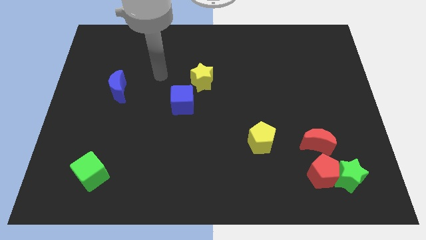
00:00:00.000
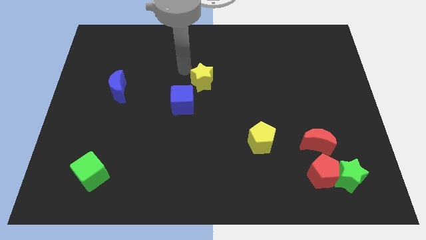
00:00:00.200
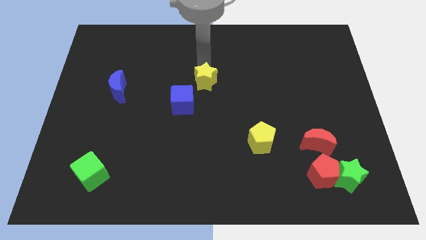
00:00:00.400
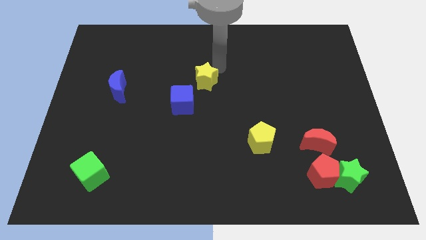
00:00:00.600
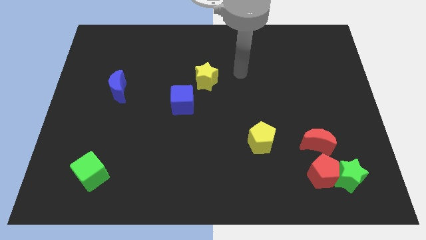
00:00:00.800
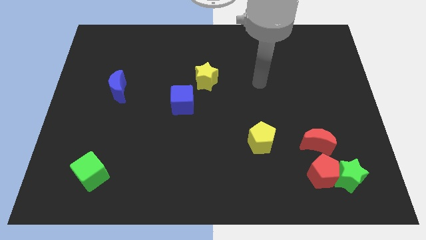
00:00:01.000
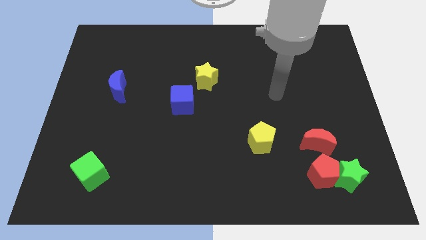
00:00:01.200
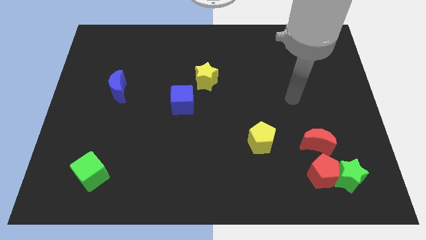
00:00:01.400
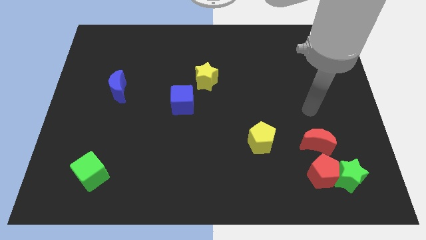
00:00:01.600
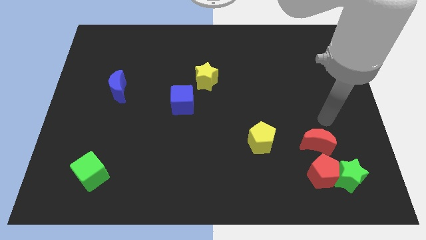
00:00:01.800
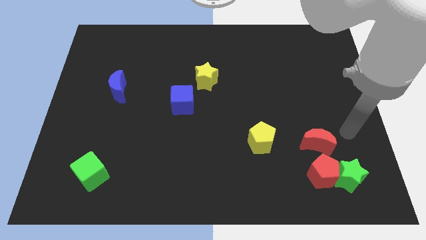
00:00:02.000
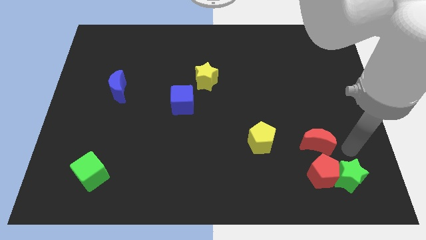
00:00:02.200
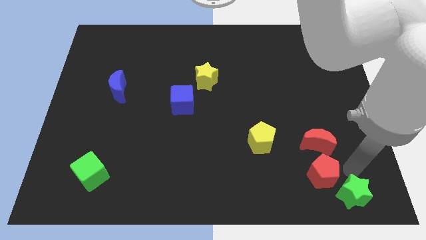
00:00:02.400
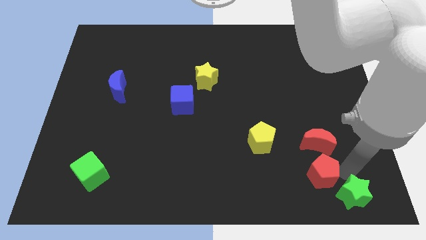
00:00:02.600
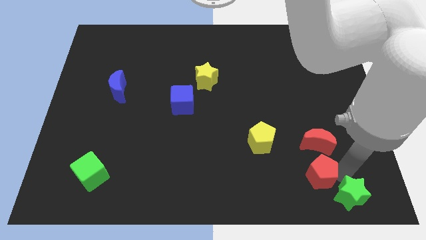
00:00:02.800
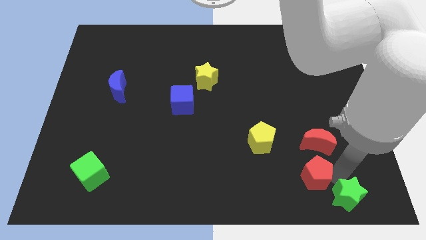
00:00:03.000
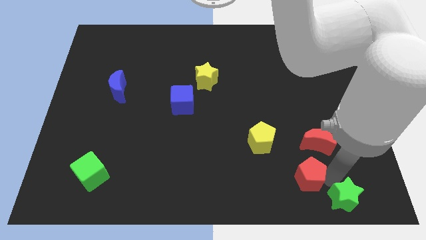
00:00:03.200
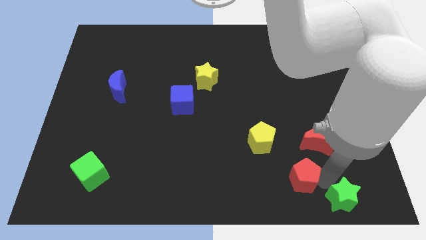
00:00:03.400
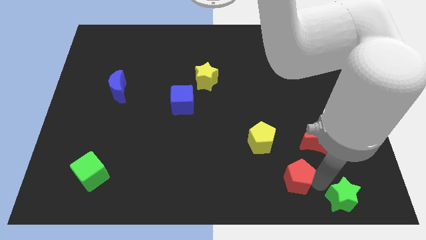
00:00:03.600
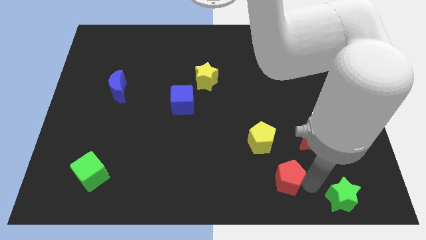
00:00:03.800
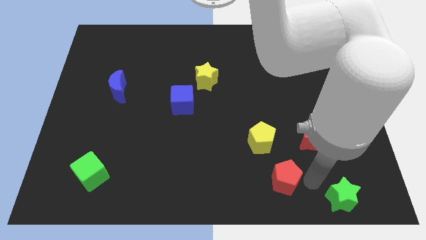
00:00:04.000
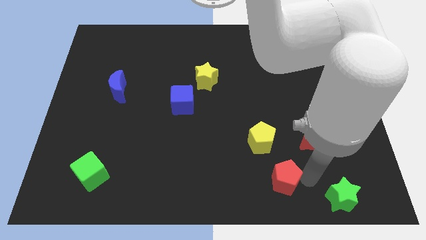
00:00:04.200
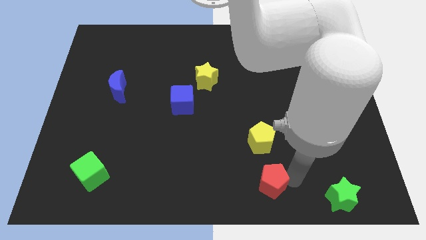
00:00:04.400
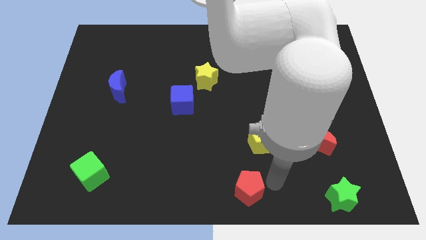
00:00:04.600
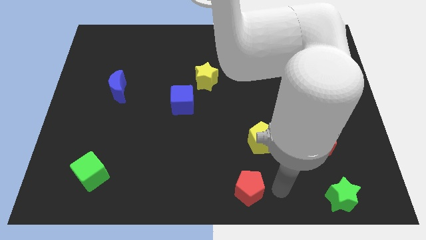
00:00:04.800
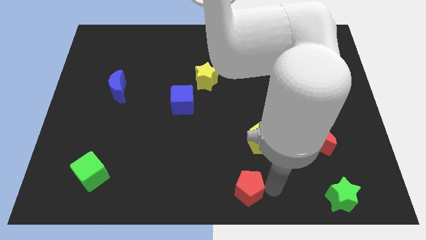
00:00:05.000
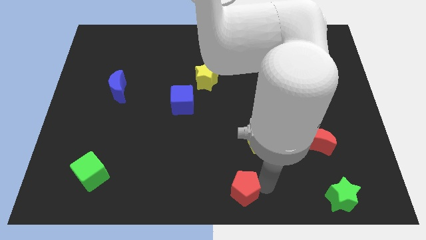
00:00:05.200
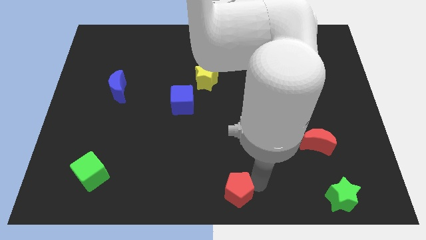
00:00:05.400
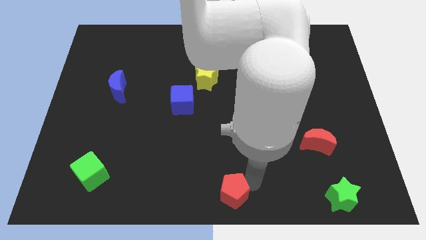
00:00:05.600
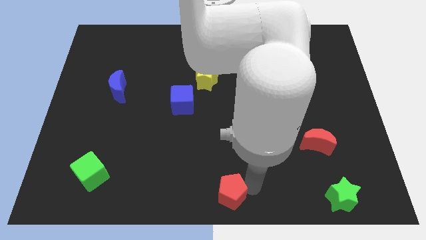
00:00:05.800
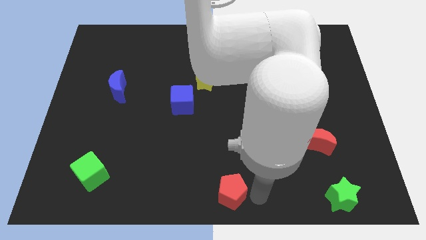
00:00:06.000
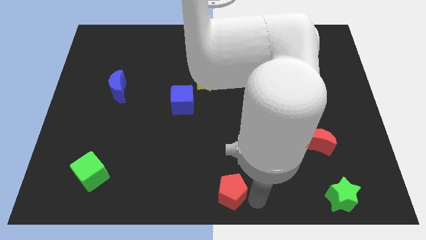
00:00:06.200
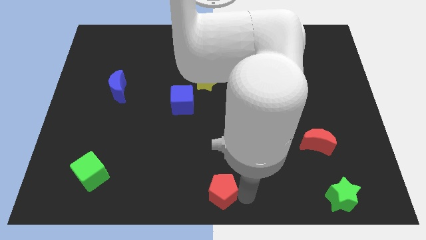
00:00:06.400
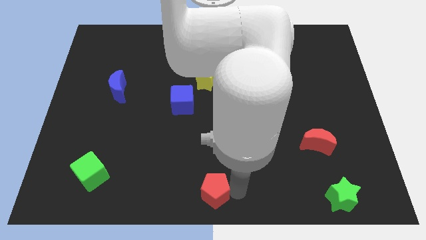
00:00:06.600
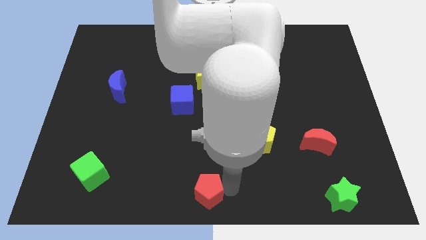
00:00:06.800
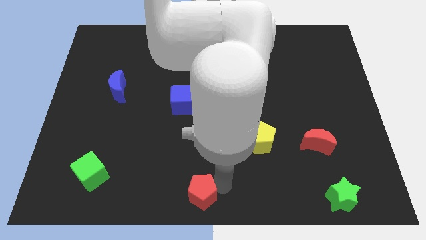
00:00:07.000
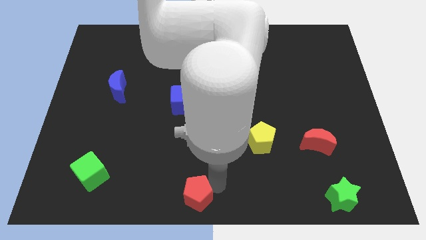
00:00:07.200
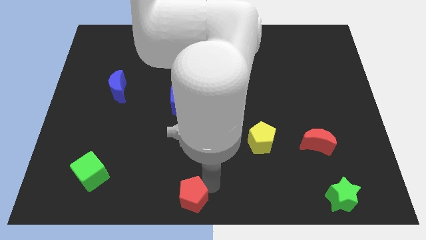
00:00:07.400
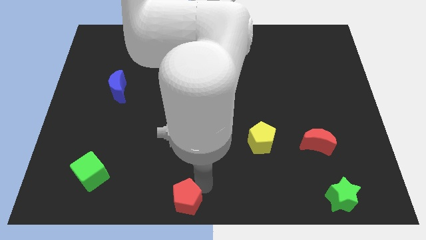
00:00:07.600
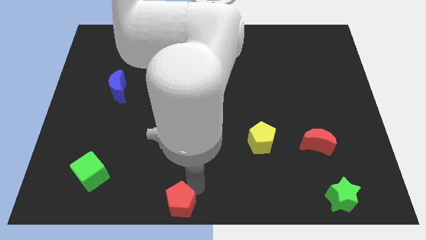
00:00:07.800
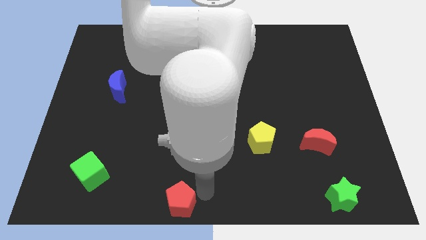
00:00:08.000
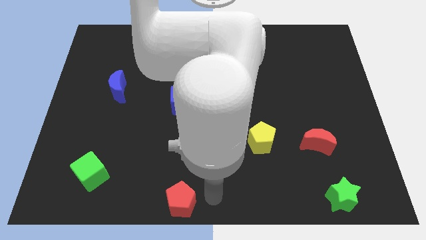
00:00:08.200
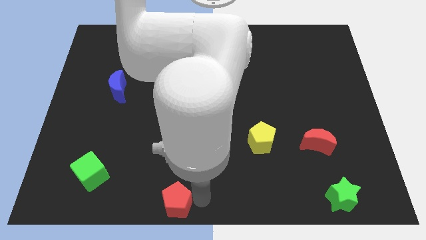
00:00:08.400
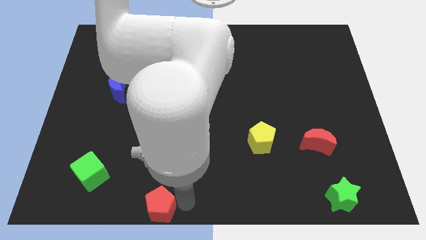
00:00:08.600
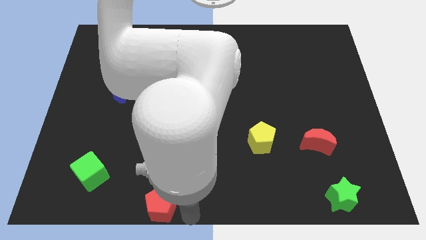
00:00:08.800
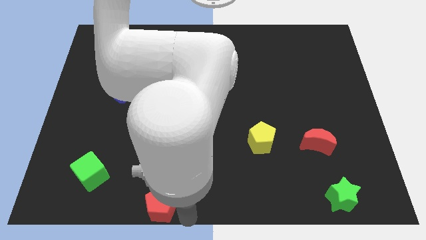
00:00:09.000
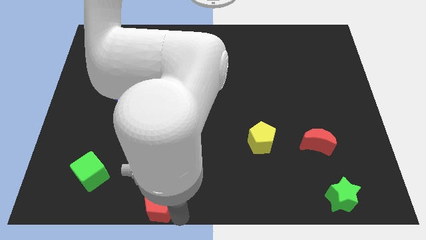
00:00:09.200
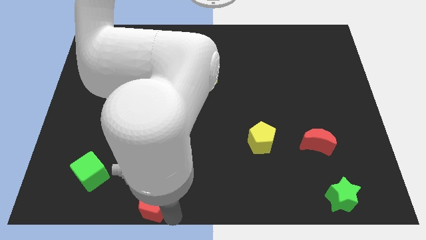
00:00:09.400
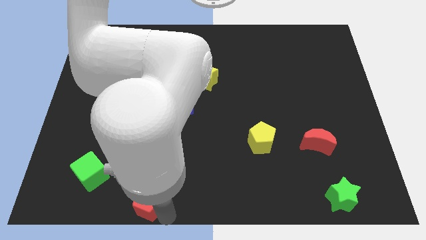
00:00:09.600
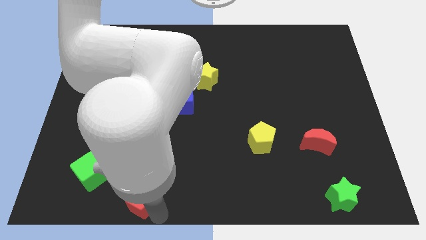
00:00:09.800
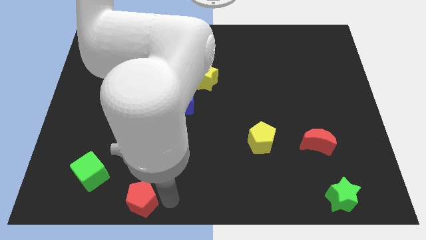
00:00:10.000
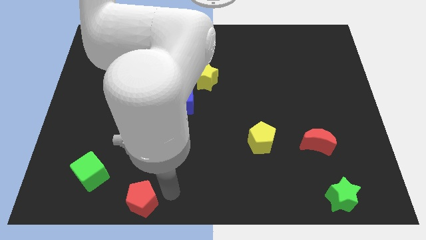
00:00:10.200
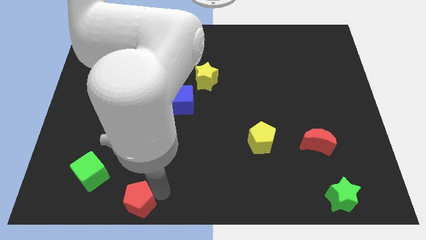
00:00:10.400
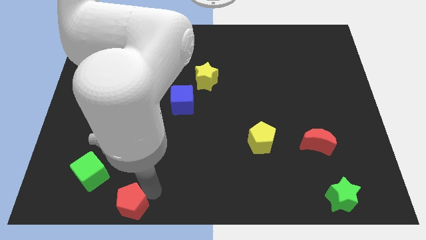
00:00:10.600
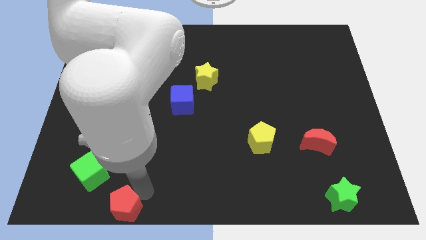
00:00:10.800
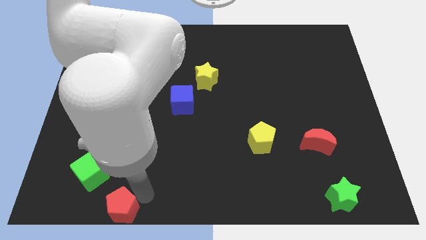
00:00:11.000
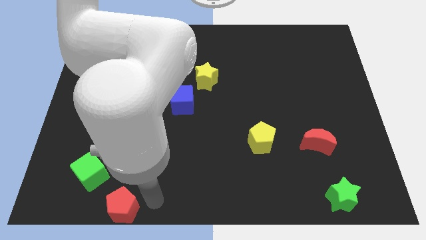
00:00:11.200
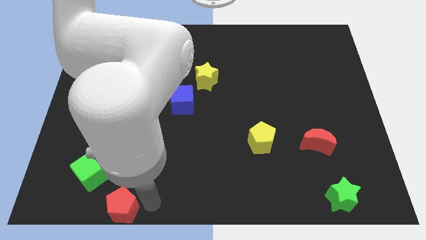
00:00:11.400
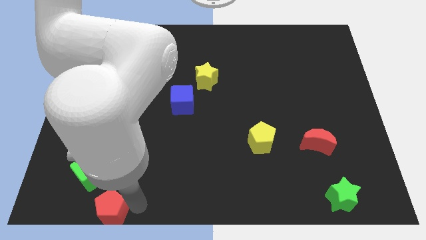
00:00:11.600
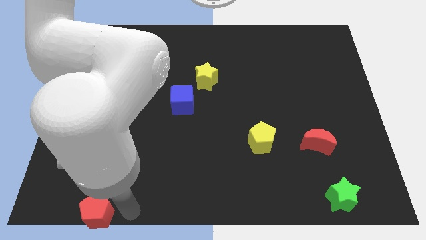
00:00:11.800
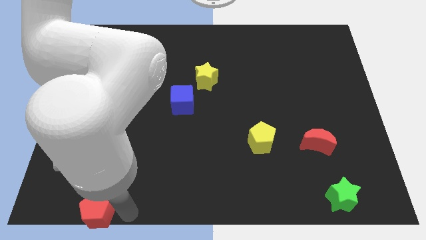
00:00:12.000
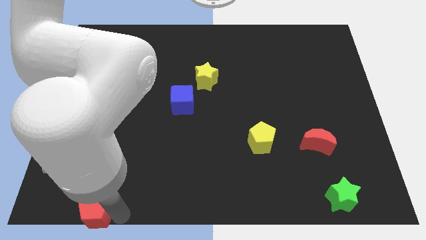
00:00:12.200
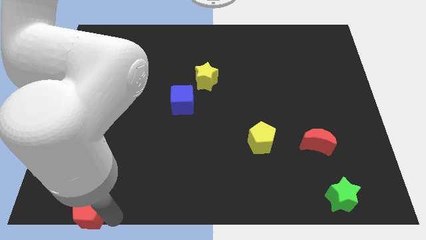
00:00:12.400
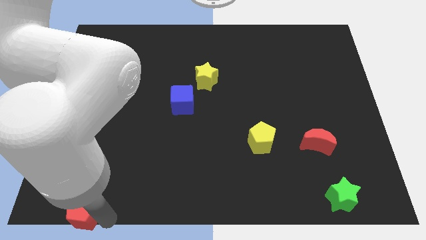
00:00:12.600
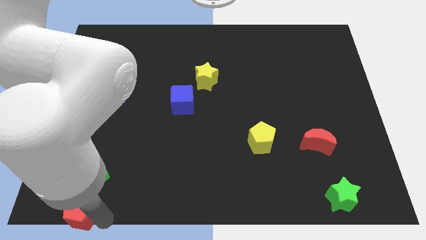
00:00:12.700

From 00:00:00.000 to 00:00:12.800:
move the red pentagon to the bottom left of the board

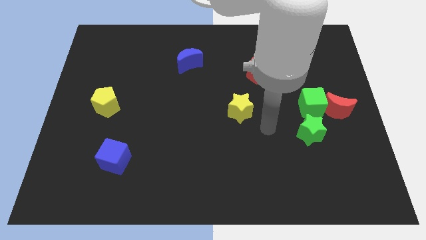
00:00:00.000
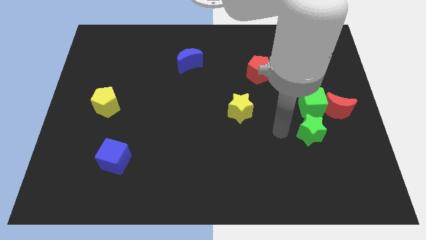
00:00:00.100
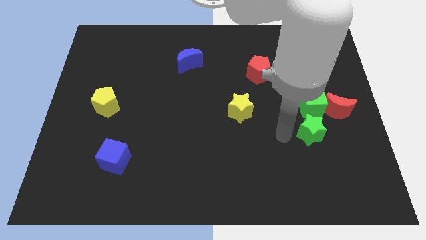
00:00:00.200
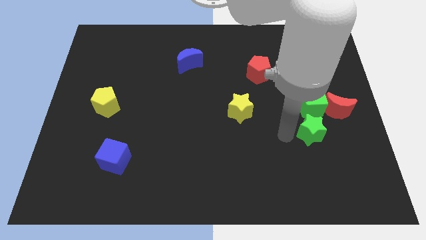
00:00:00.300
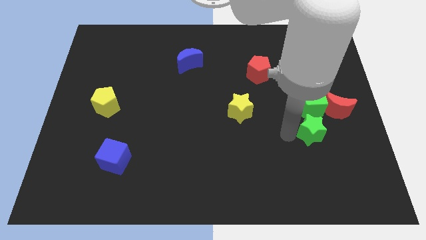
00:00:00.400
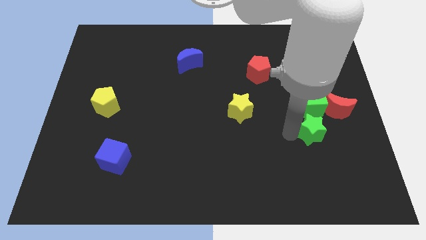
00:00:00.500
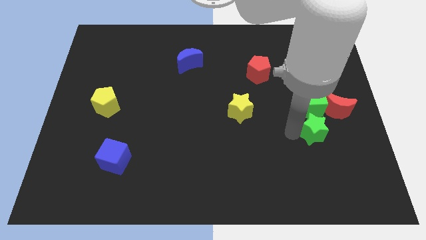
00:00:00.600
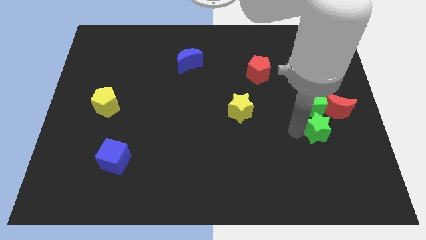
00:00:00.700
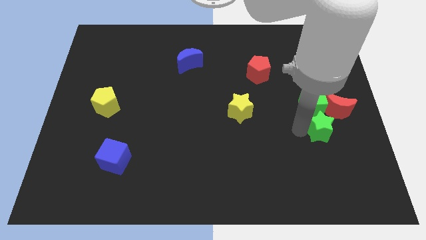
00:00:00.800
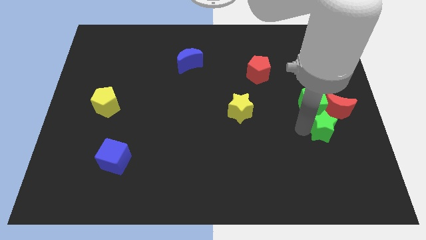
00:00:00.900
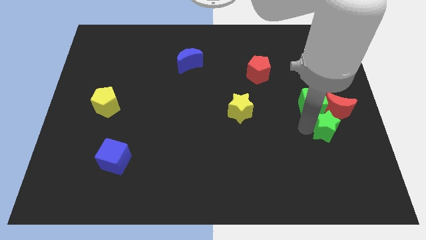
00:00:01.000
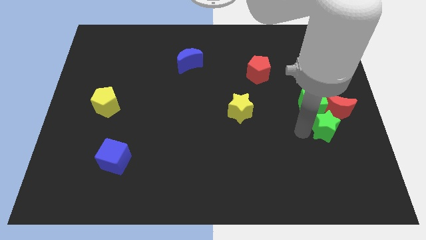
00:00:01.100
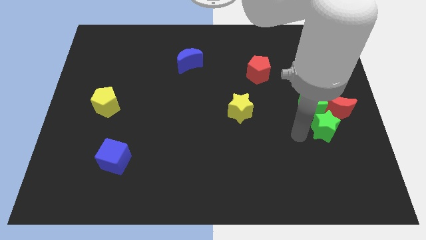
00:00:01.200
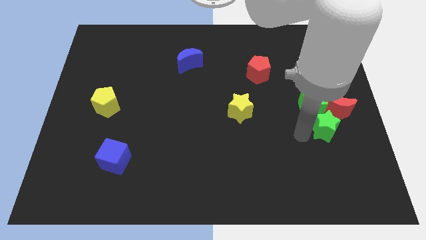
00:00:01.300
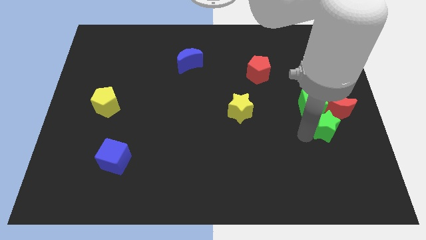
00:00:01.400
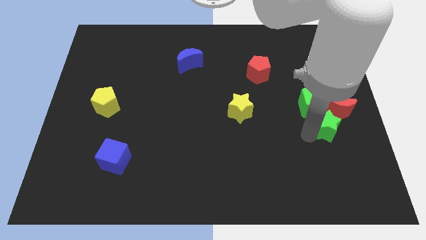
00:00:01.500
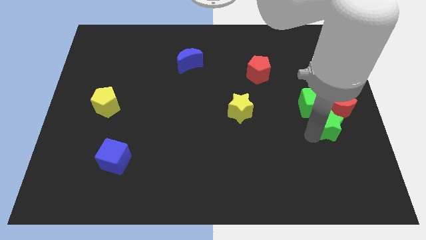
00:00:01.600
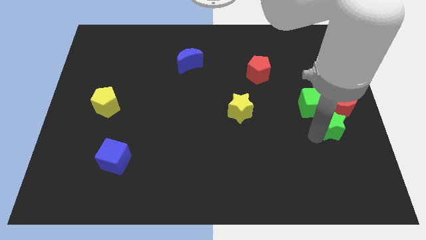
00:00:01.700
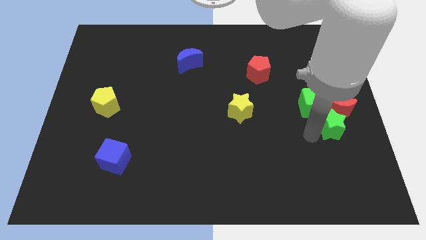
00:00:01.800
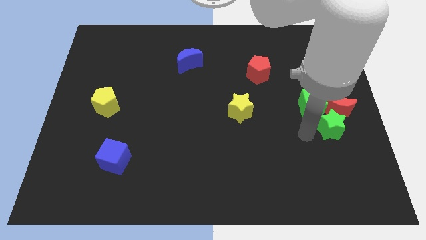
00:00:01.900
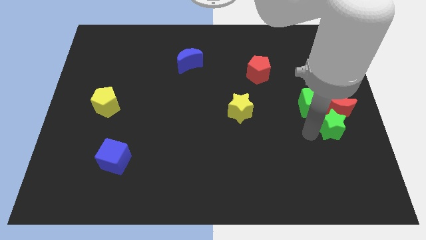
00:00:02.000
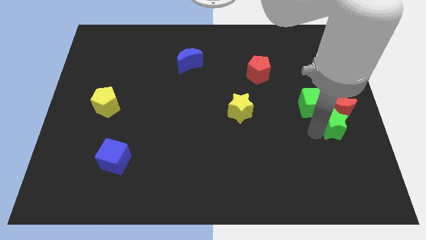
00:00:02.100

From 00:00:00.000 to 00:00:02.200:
put the green star to the right side
